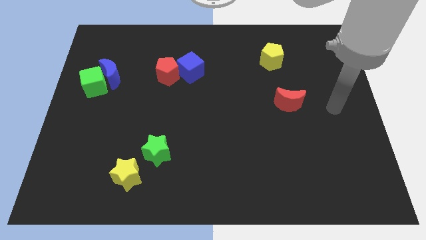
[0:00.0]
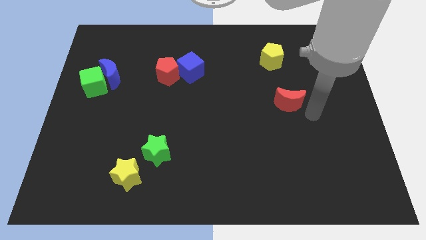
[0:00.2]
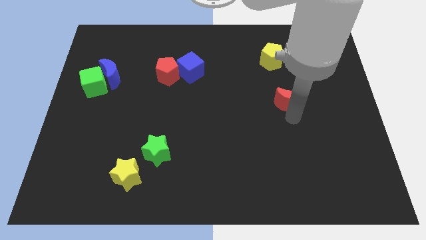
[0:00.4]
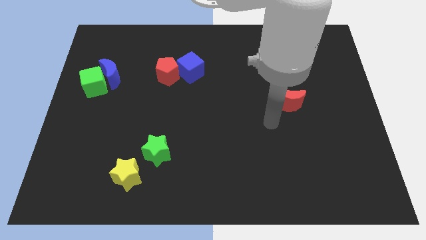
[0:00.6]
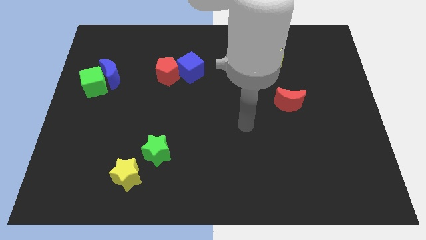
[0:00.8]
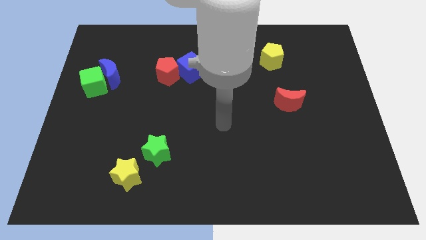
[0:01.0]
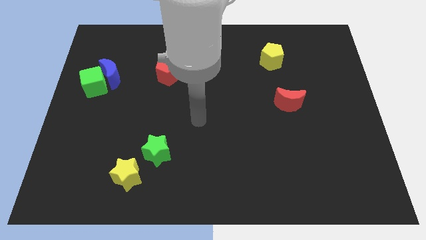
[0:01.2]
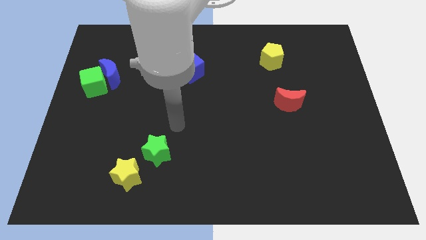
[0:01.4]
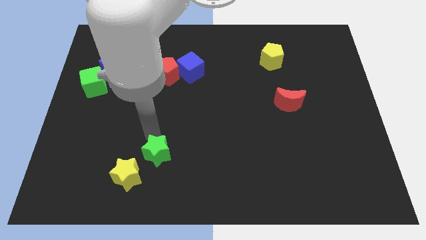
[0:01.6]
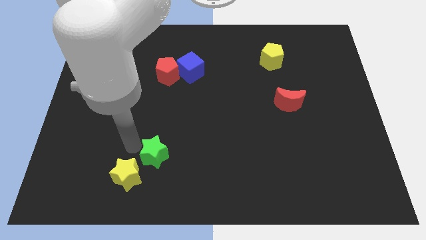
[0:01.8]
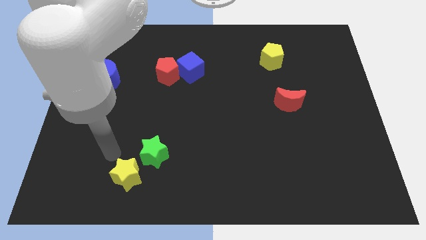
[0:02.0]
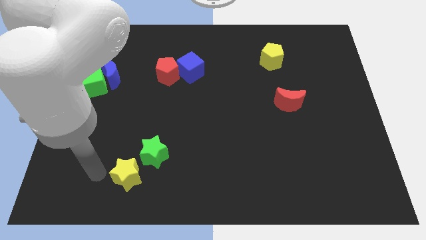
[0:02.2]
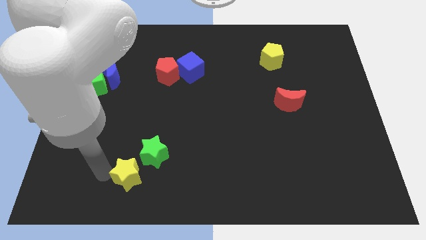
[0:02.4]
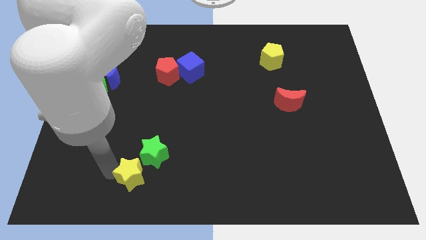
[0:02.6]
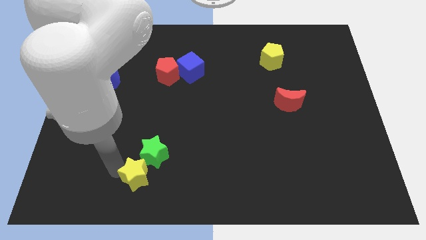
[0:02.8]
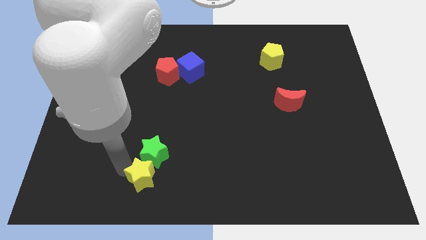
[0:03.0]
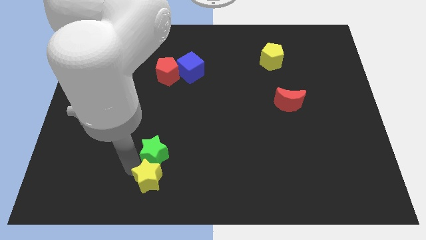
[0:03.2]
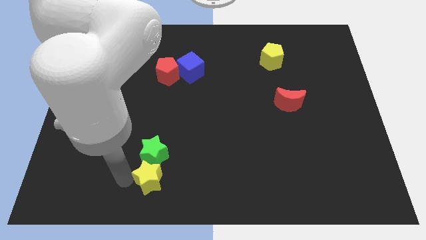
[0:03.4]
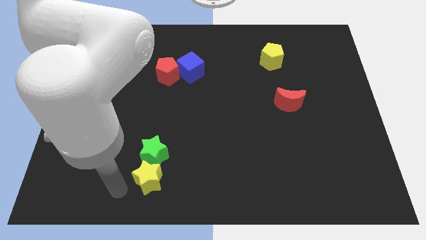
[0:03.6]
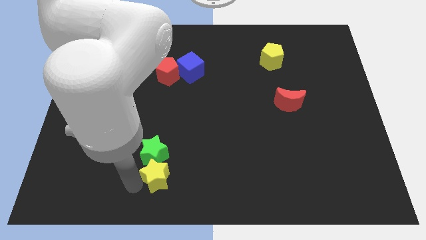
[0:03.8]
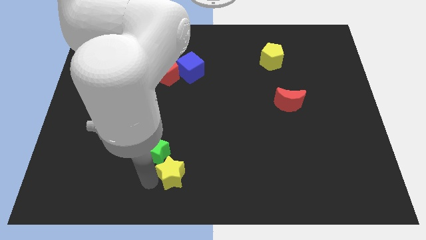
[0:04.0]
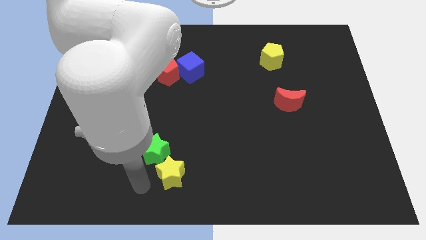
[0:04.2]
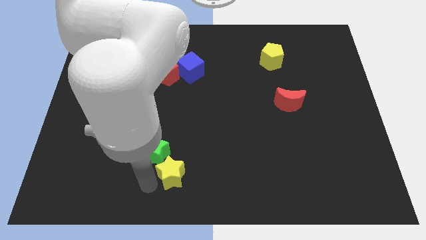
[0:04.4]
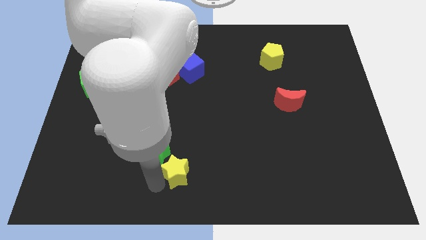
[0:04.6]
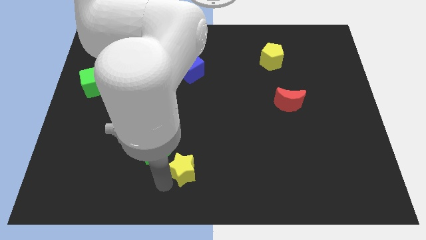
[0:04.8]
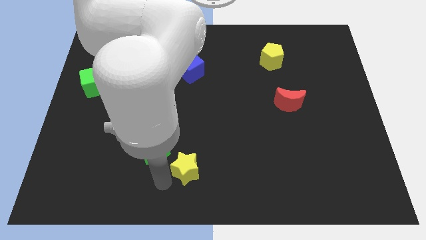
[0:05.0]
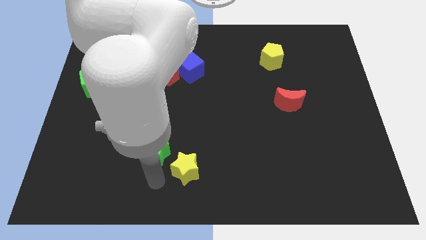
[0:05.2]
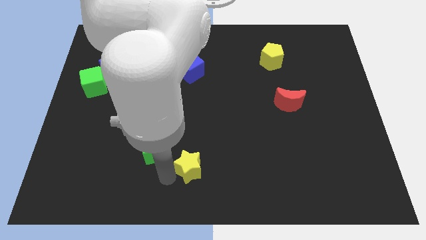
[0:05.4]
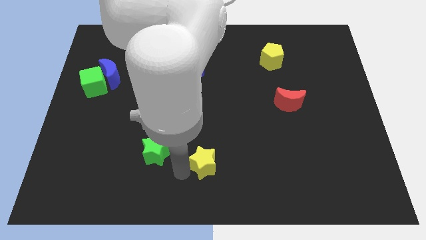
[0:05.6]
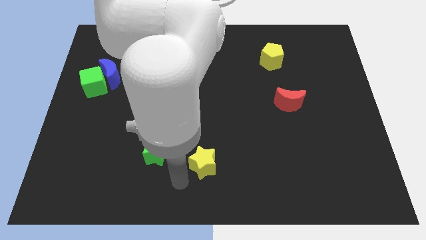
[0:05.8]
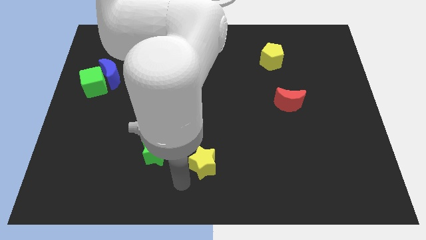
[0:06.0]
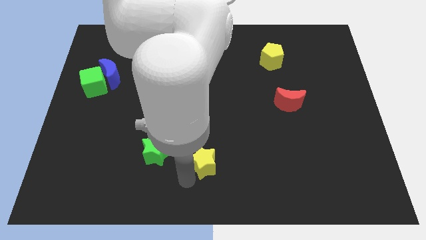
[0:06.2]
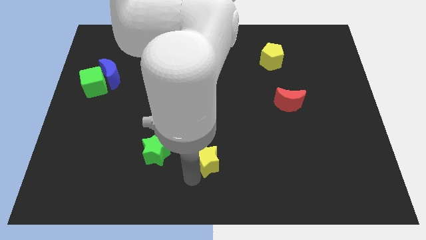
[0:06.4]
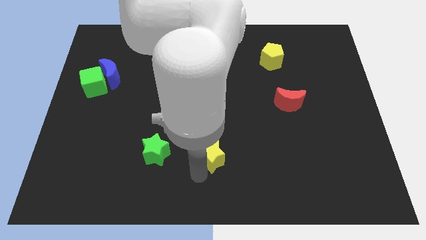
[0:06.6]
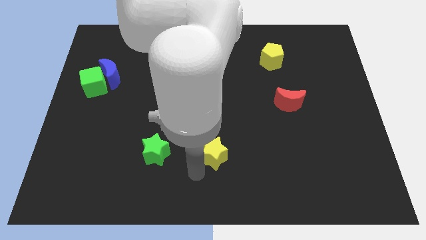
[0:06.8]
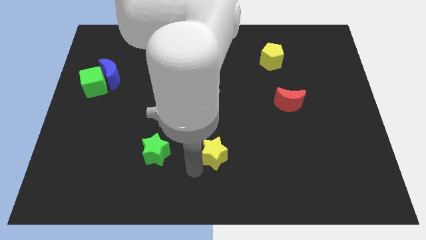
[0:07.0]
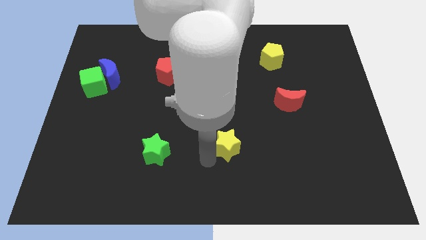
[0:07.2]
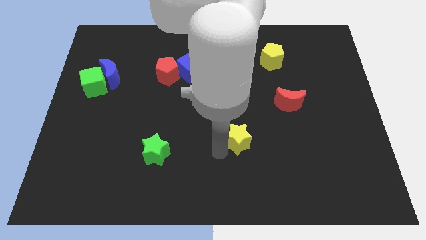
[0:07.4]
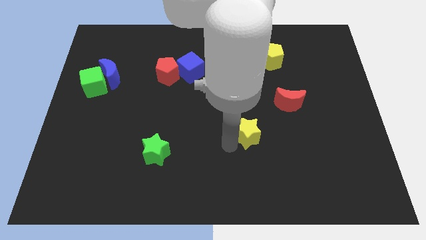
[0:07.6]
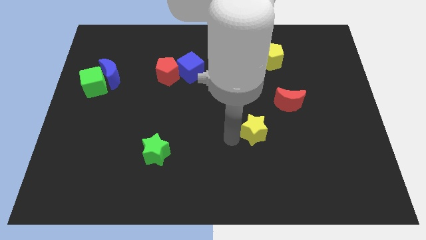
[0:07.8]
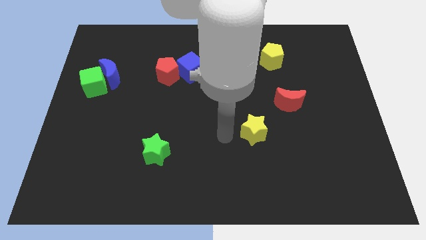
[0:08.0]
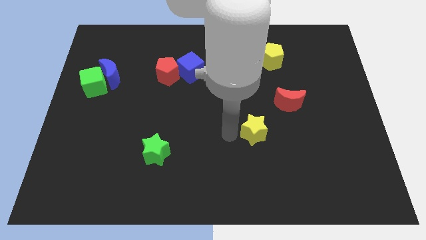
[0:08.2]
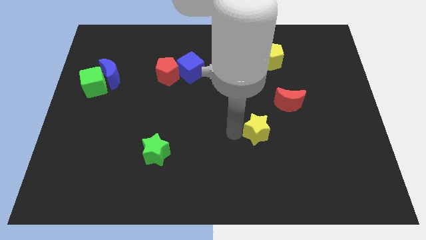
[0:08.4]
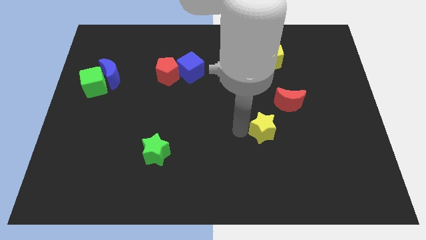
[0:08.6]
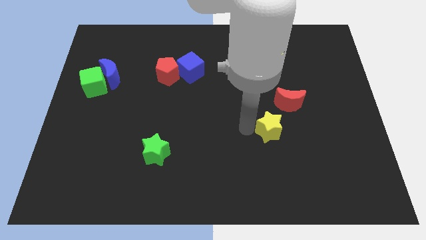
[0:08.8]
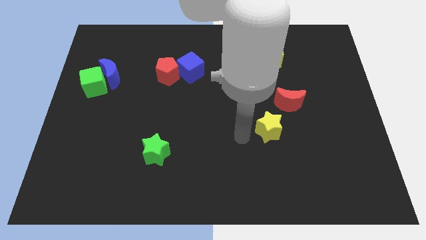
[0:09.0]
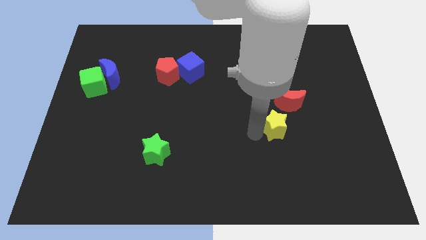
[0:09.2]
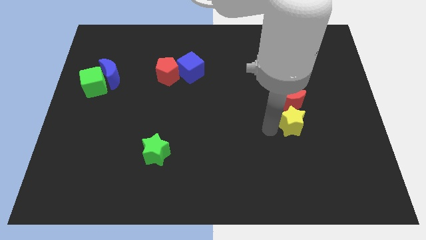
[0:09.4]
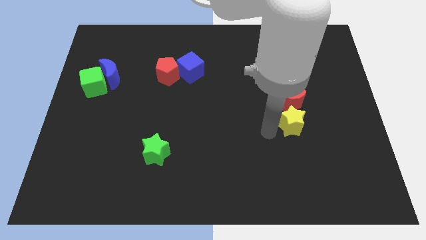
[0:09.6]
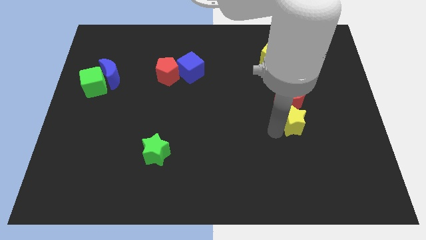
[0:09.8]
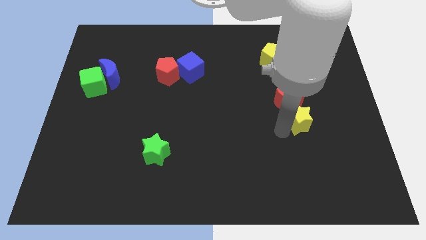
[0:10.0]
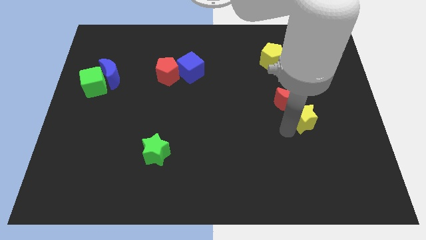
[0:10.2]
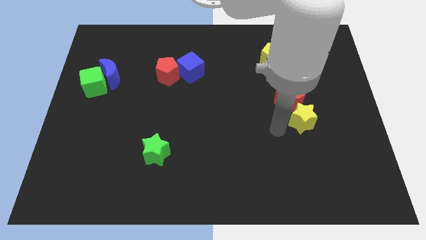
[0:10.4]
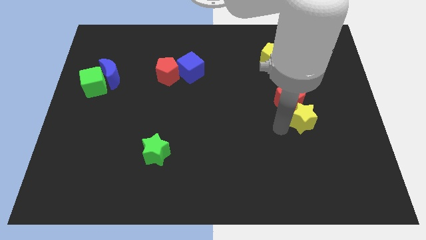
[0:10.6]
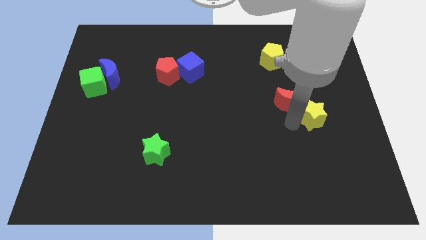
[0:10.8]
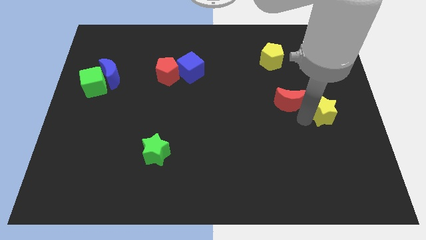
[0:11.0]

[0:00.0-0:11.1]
put the yellow star to the right side
